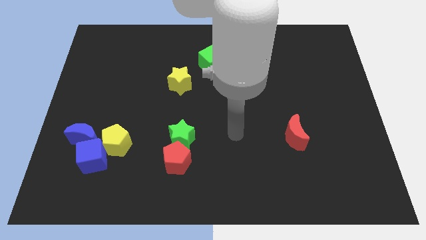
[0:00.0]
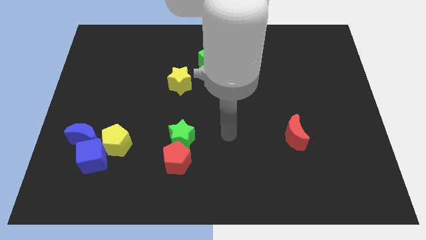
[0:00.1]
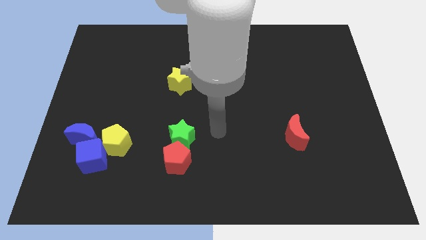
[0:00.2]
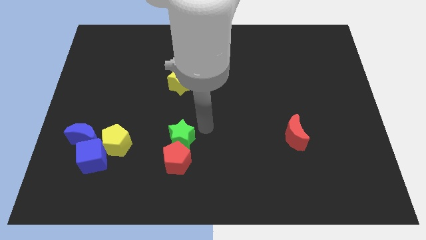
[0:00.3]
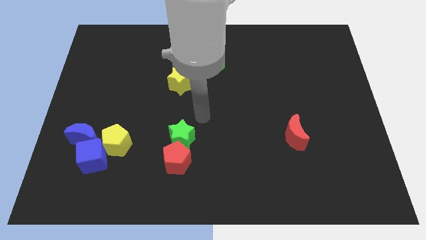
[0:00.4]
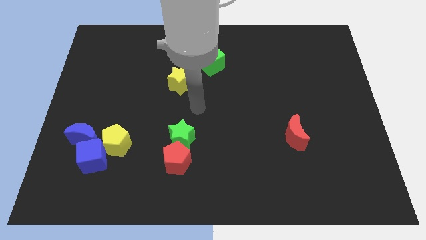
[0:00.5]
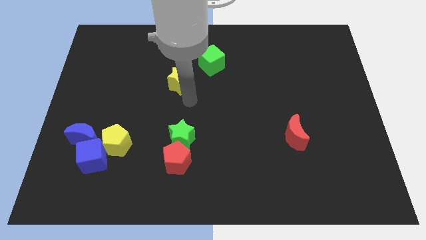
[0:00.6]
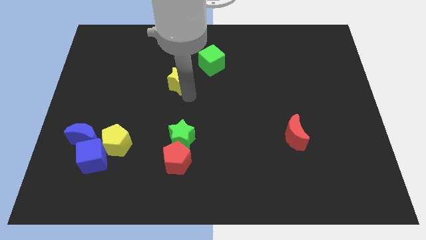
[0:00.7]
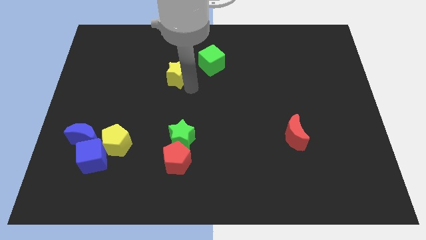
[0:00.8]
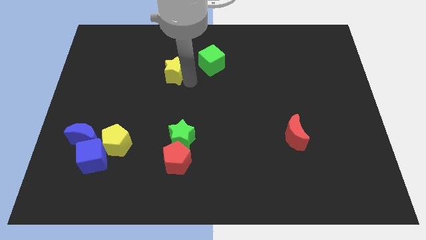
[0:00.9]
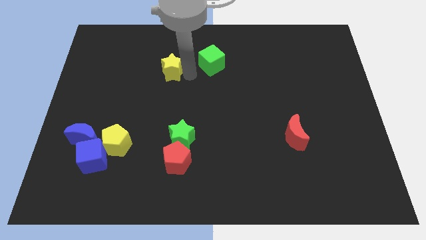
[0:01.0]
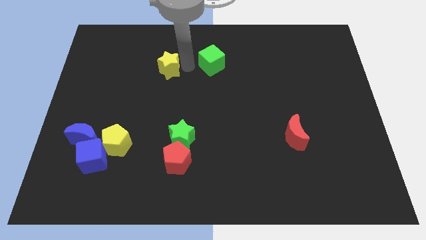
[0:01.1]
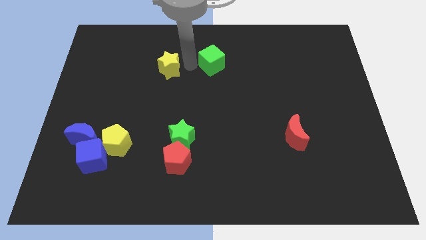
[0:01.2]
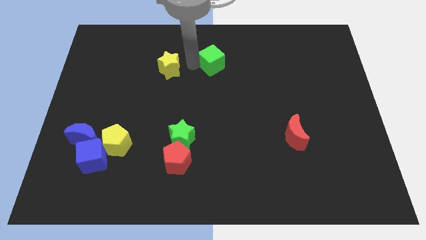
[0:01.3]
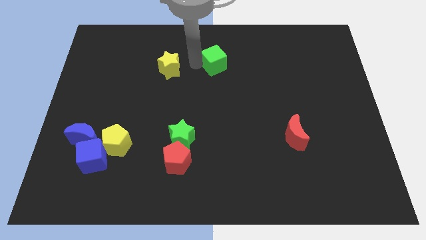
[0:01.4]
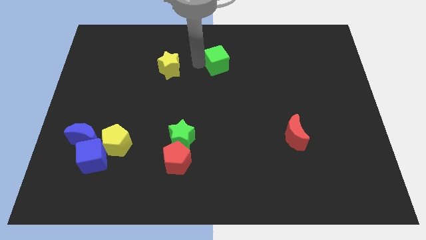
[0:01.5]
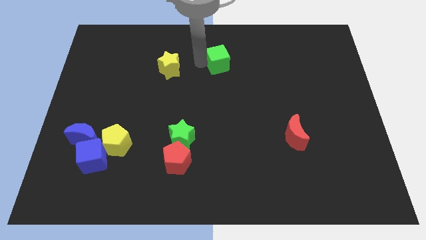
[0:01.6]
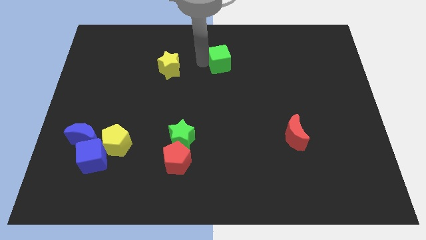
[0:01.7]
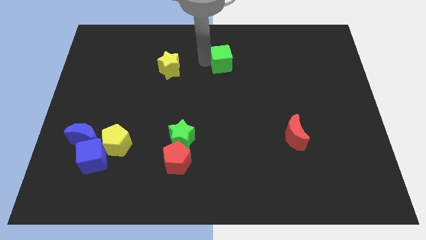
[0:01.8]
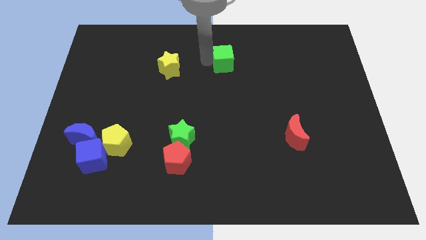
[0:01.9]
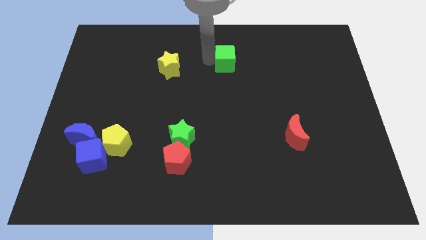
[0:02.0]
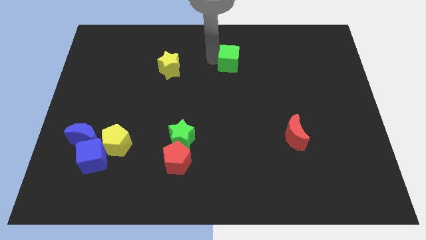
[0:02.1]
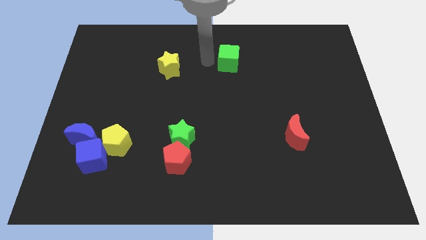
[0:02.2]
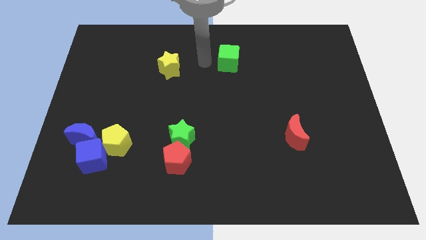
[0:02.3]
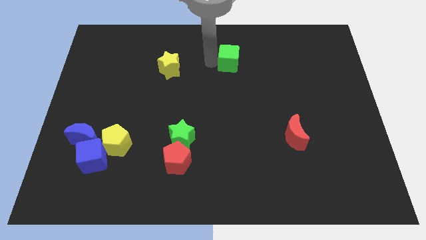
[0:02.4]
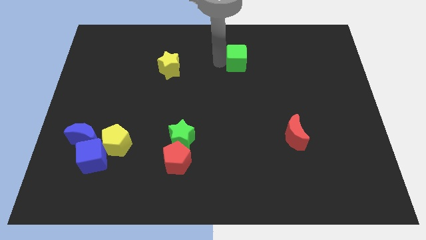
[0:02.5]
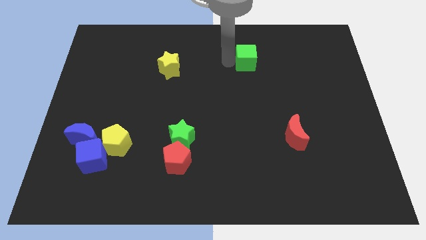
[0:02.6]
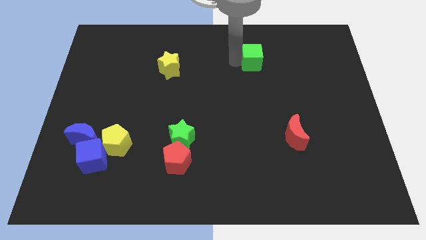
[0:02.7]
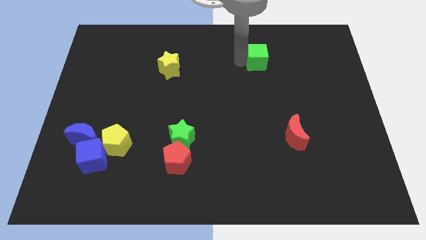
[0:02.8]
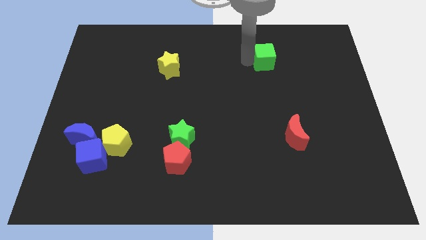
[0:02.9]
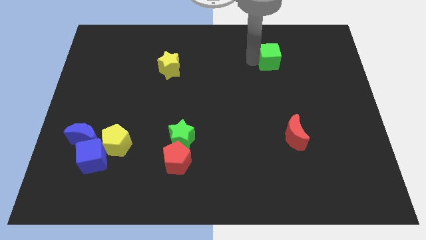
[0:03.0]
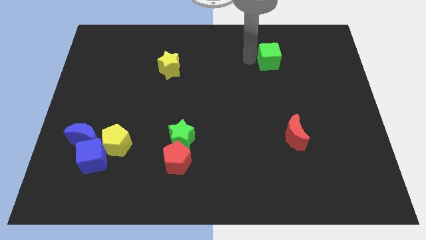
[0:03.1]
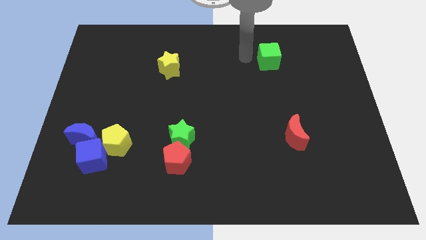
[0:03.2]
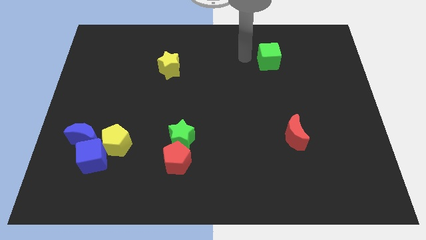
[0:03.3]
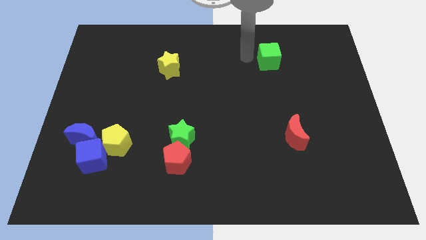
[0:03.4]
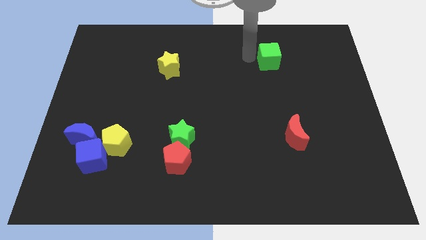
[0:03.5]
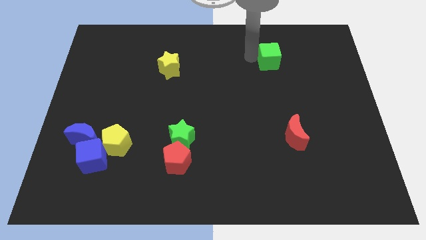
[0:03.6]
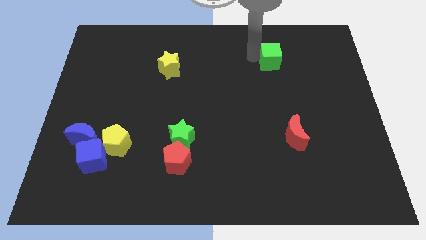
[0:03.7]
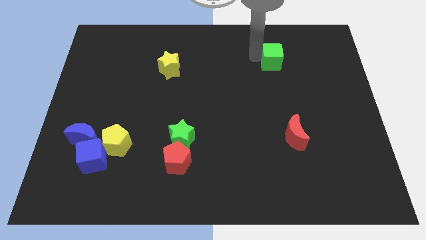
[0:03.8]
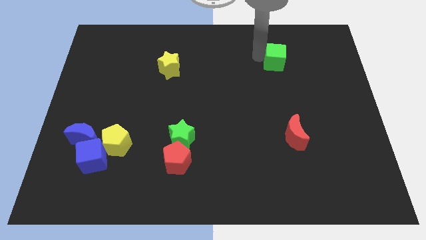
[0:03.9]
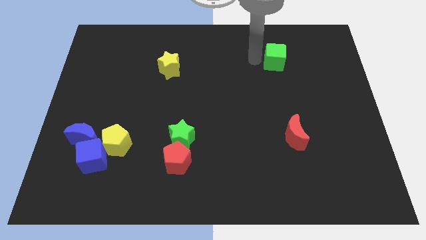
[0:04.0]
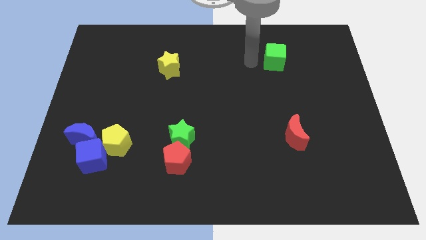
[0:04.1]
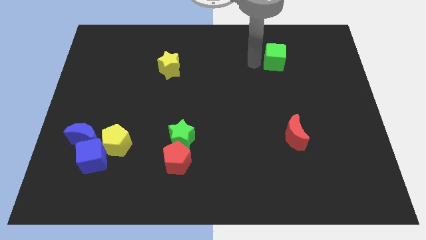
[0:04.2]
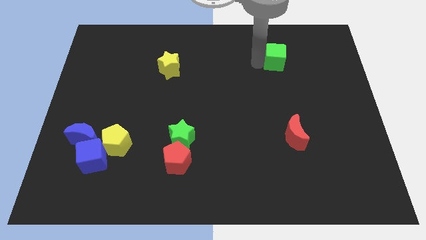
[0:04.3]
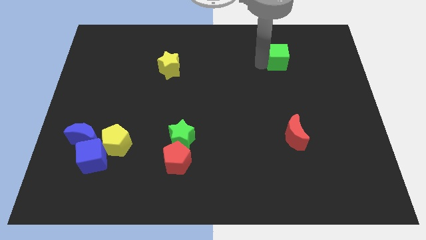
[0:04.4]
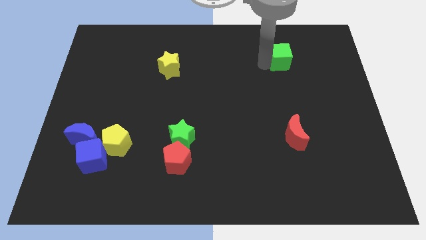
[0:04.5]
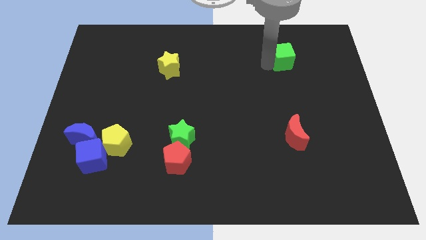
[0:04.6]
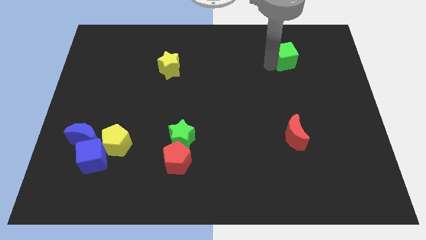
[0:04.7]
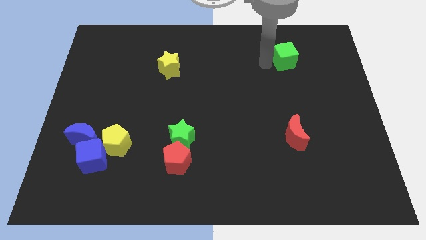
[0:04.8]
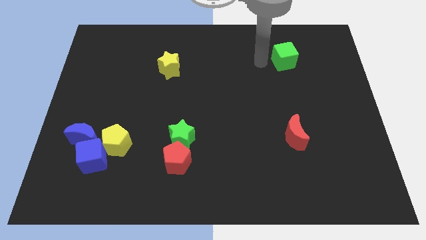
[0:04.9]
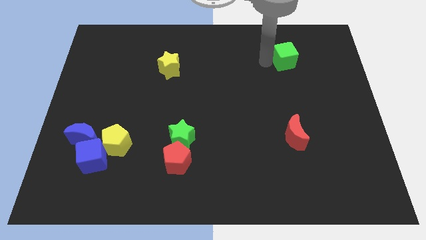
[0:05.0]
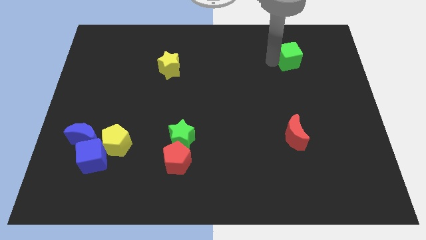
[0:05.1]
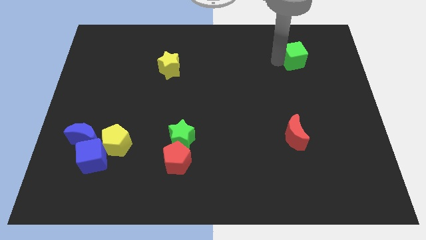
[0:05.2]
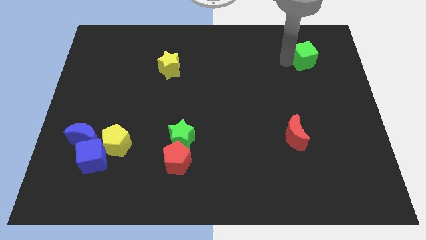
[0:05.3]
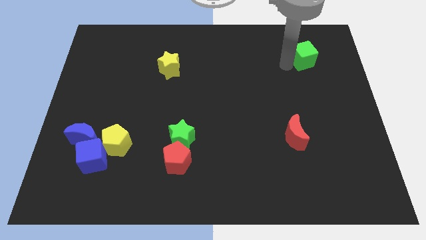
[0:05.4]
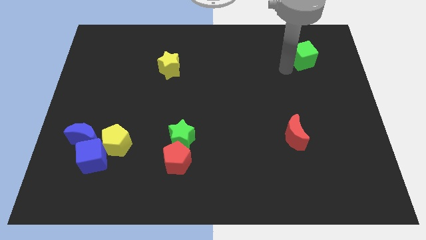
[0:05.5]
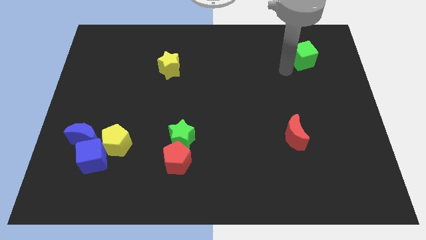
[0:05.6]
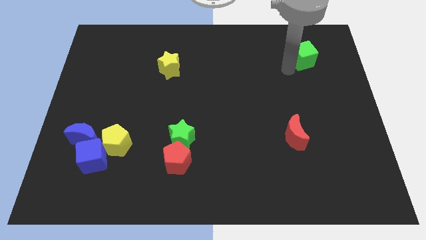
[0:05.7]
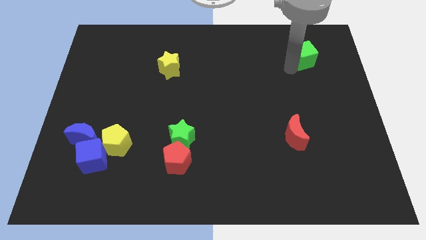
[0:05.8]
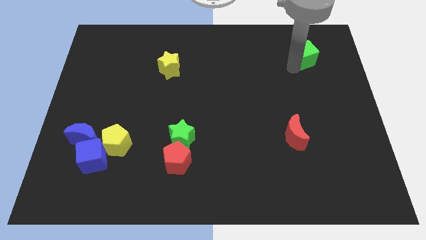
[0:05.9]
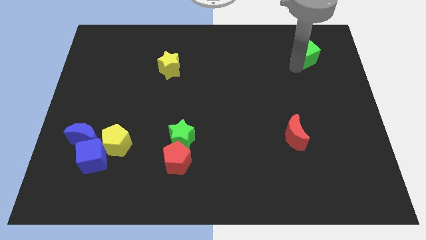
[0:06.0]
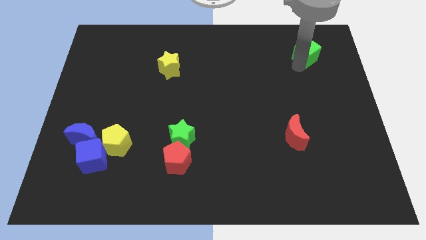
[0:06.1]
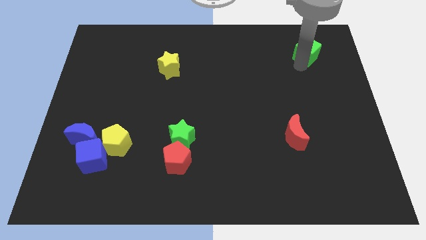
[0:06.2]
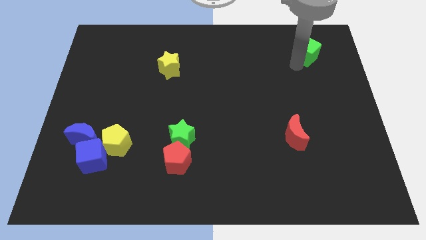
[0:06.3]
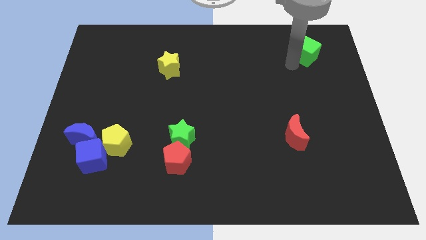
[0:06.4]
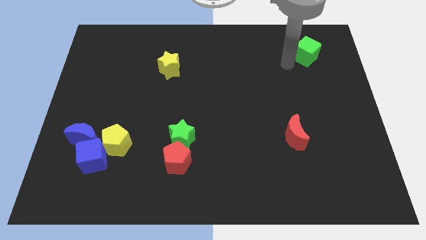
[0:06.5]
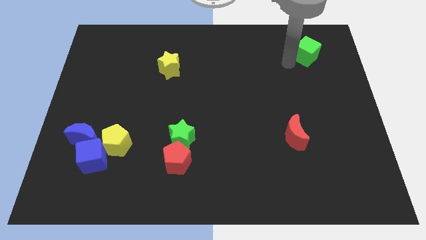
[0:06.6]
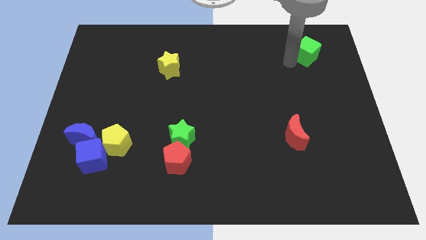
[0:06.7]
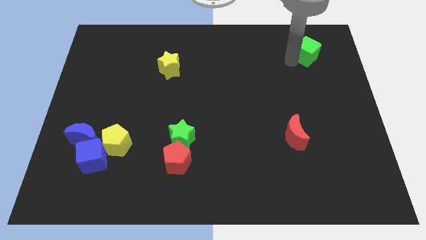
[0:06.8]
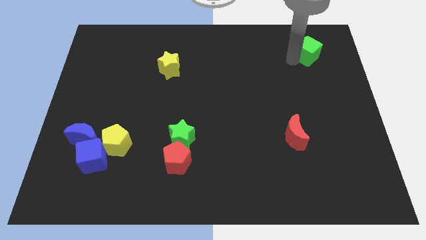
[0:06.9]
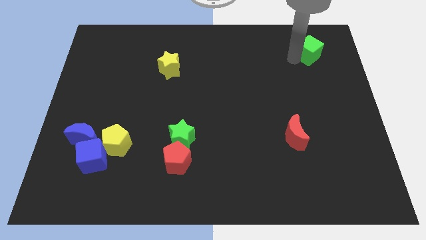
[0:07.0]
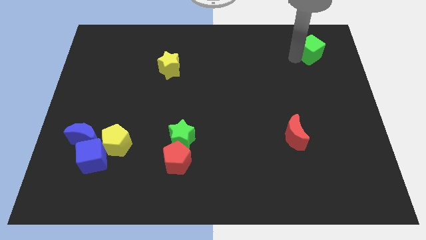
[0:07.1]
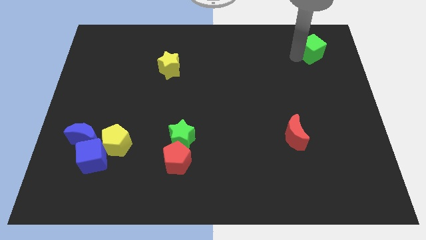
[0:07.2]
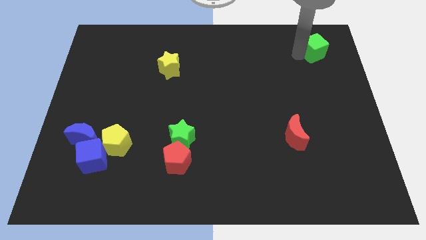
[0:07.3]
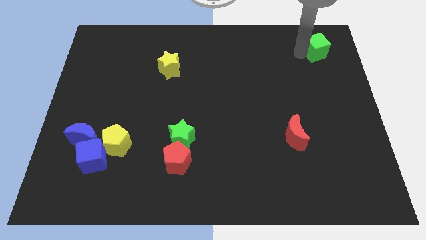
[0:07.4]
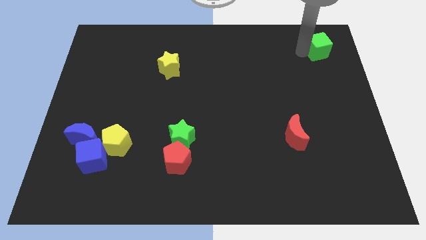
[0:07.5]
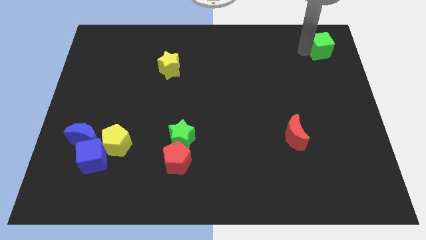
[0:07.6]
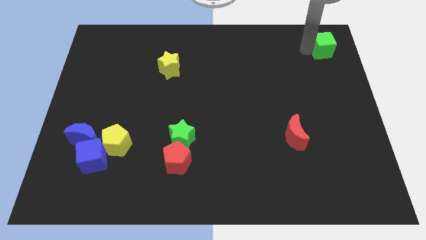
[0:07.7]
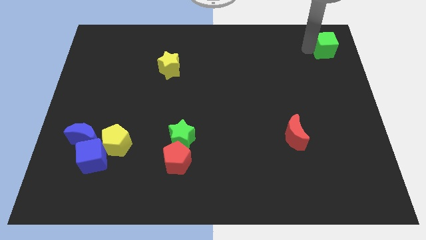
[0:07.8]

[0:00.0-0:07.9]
put the green cube to the top right of the board

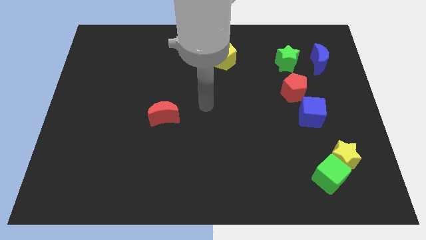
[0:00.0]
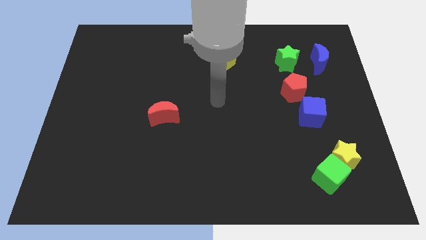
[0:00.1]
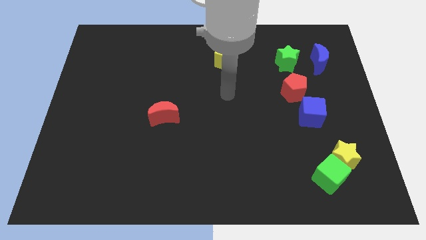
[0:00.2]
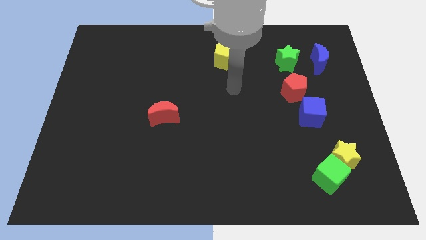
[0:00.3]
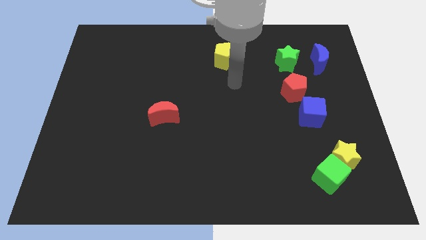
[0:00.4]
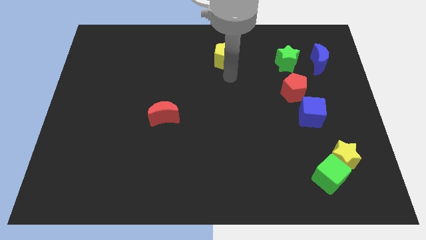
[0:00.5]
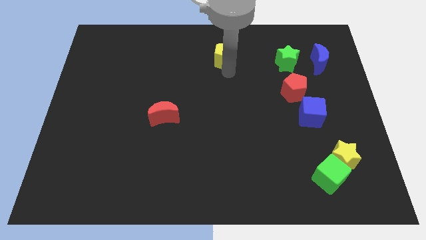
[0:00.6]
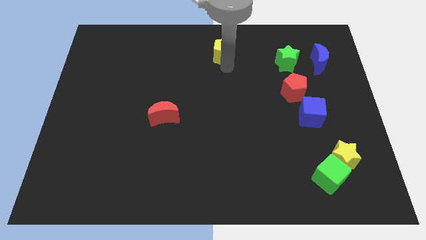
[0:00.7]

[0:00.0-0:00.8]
move the yellow pentagon to the top side
